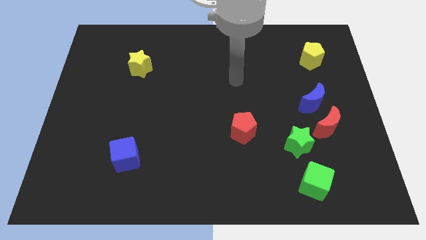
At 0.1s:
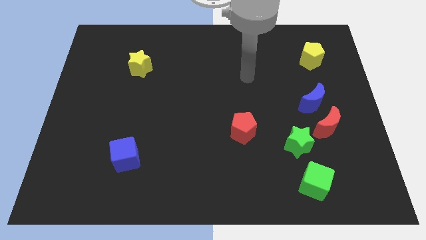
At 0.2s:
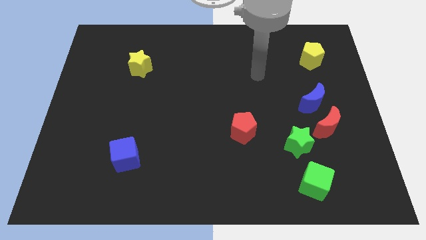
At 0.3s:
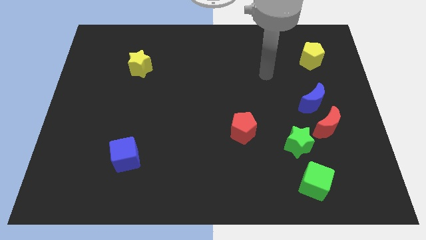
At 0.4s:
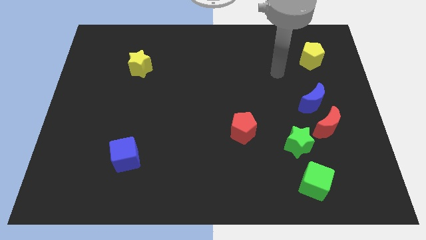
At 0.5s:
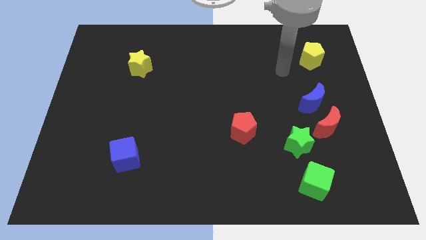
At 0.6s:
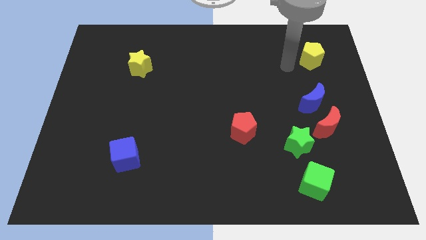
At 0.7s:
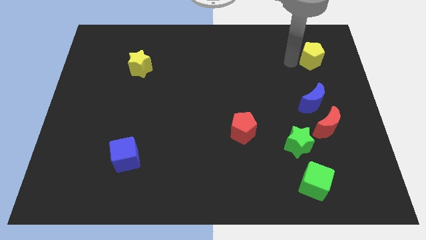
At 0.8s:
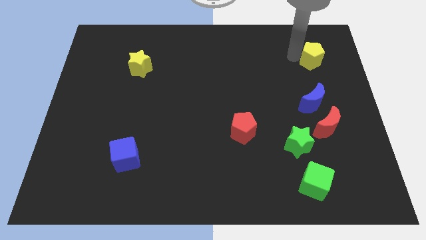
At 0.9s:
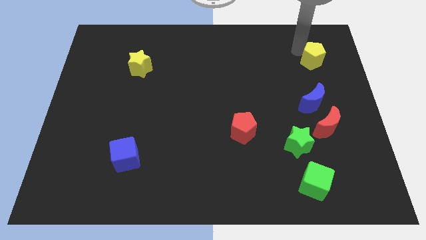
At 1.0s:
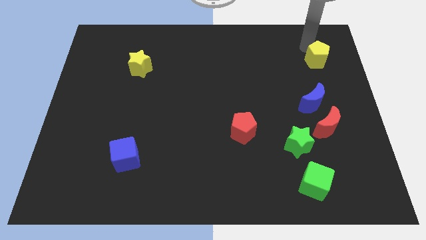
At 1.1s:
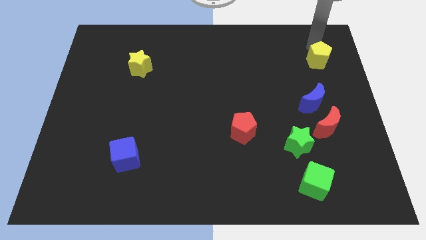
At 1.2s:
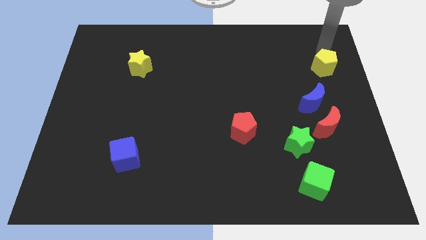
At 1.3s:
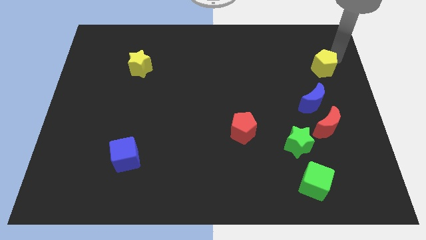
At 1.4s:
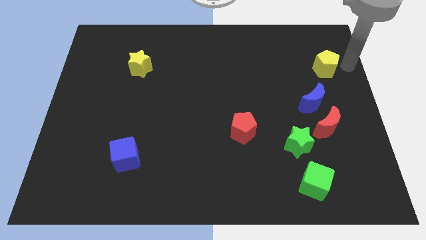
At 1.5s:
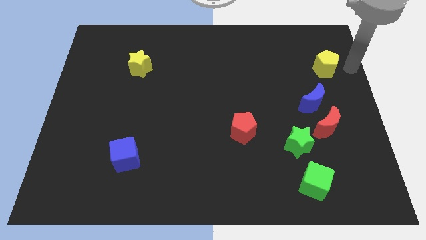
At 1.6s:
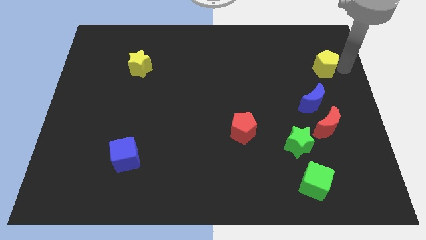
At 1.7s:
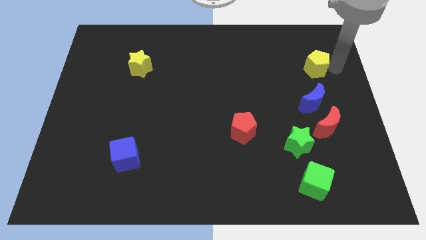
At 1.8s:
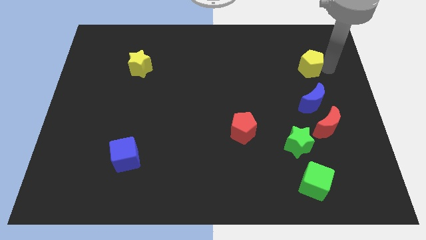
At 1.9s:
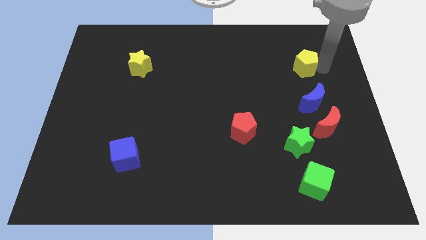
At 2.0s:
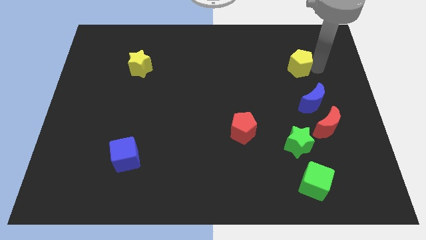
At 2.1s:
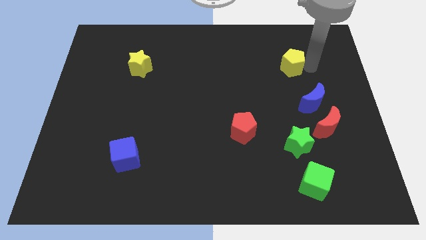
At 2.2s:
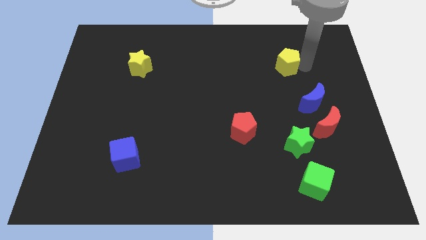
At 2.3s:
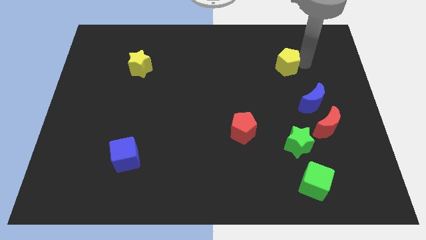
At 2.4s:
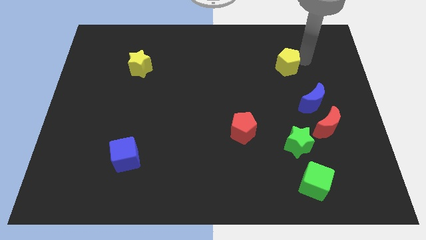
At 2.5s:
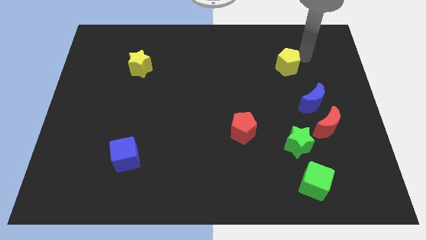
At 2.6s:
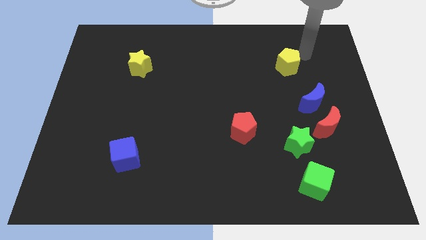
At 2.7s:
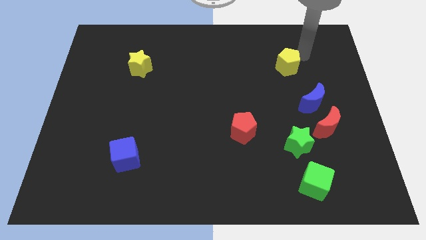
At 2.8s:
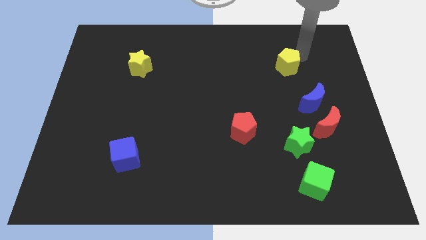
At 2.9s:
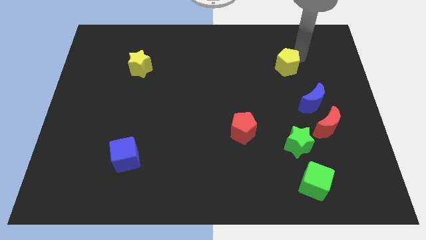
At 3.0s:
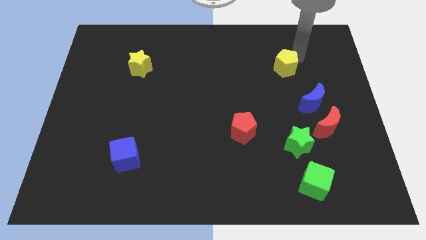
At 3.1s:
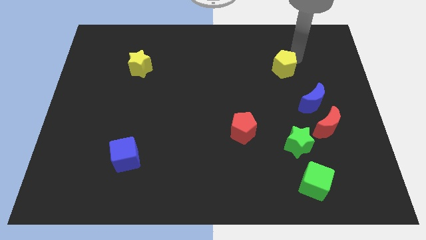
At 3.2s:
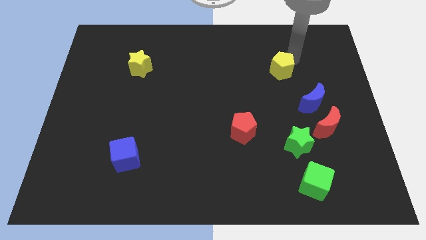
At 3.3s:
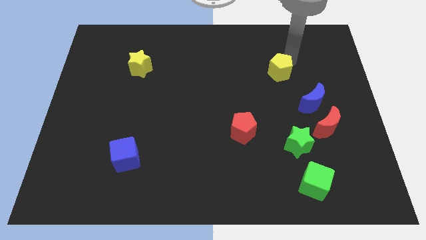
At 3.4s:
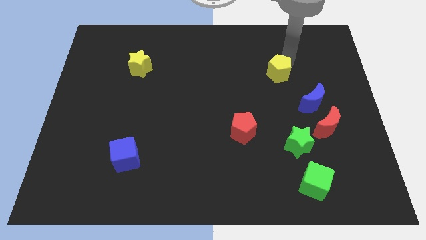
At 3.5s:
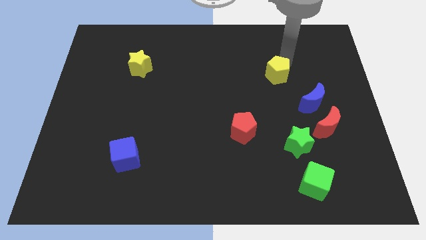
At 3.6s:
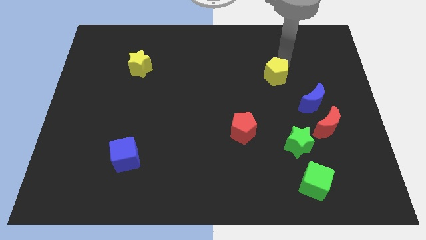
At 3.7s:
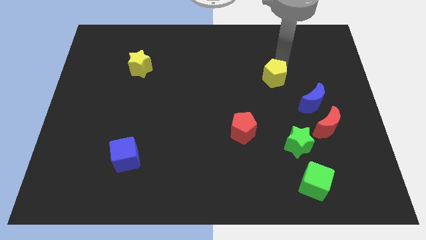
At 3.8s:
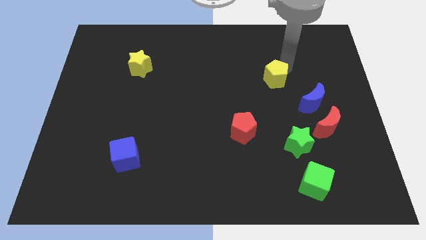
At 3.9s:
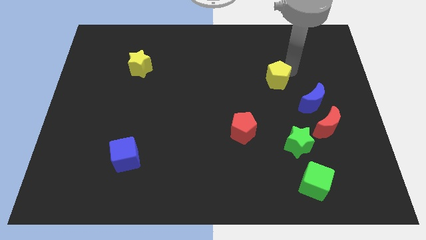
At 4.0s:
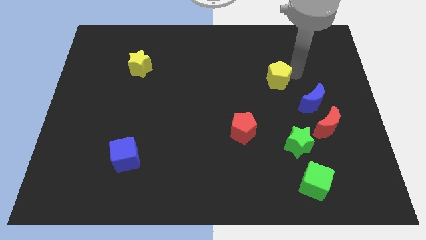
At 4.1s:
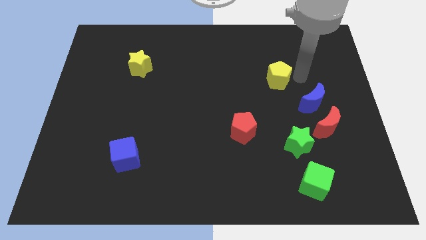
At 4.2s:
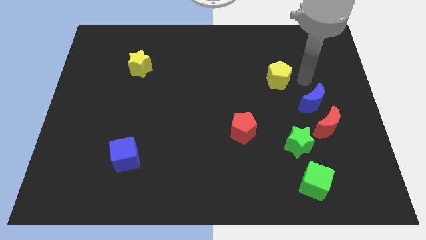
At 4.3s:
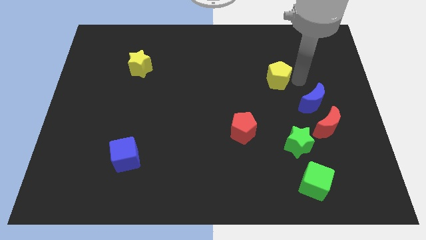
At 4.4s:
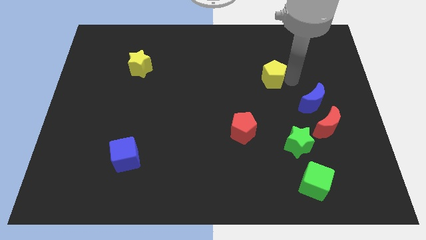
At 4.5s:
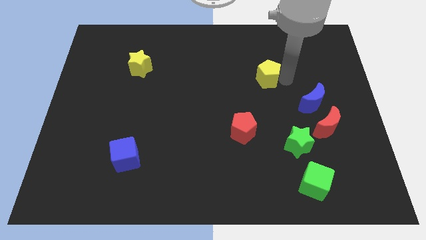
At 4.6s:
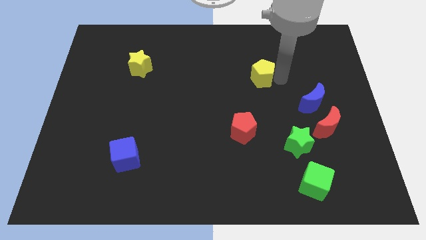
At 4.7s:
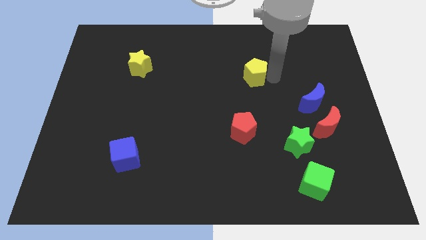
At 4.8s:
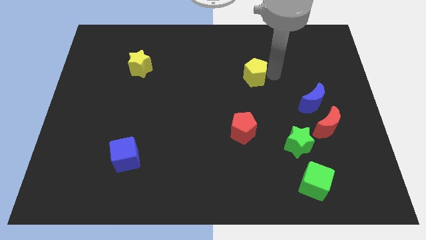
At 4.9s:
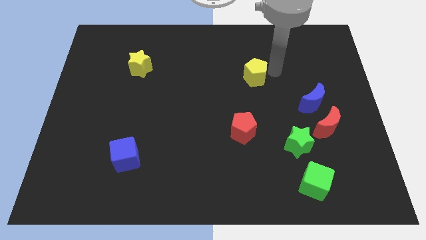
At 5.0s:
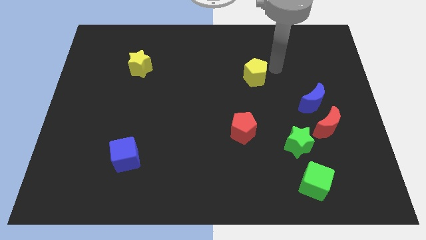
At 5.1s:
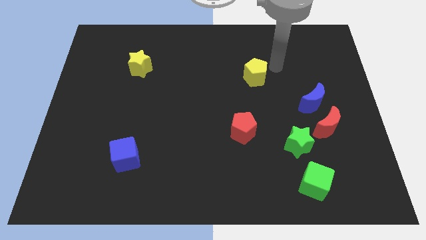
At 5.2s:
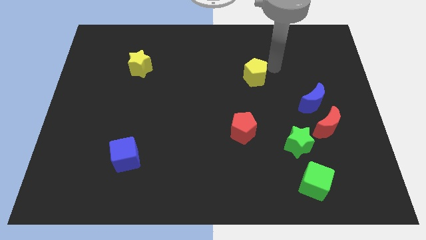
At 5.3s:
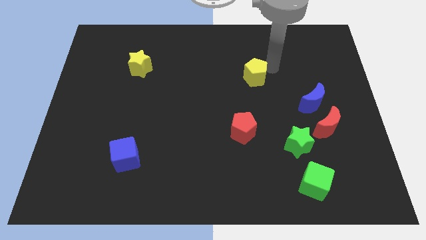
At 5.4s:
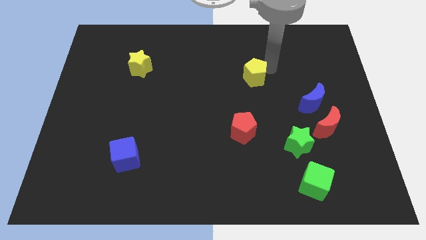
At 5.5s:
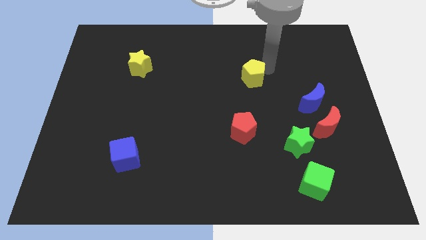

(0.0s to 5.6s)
push the yellow pentagon to the middle of the board

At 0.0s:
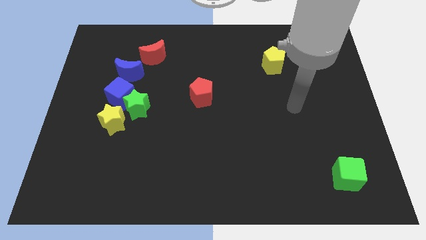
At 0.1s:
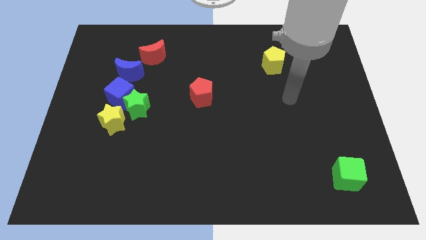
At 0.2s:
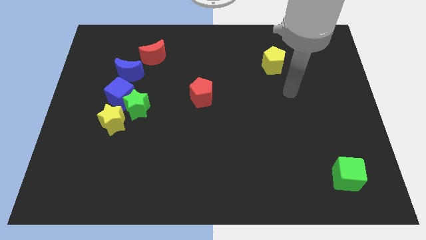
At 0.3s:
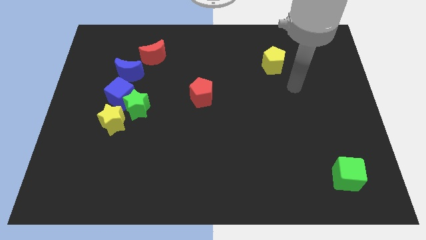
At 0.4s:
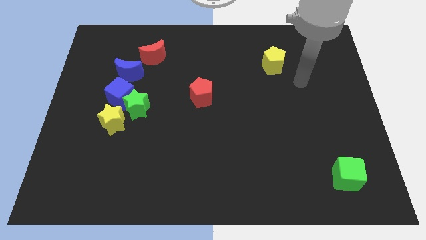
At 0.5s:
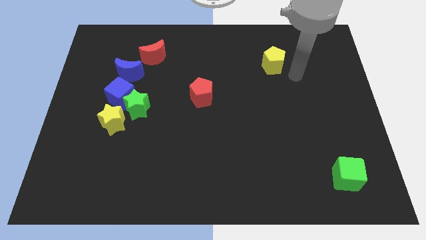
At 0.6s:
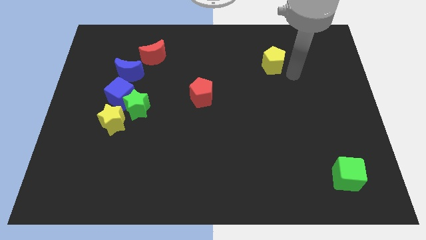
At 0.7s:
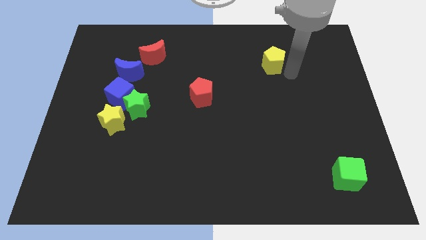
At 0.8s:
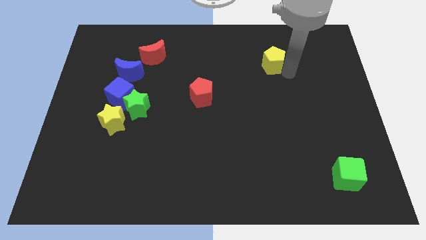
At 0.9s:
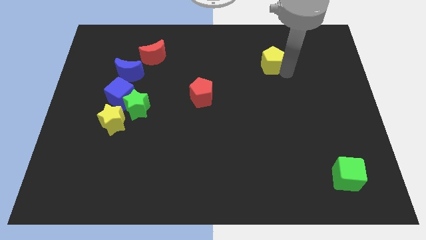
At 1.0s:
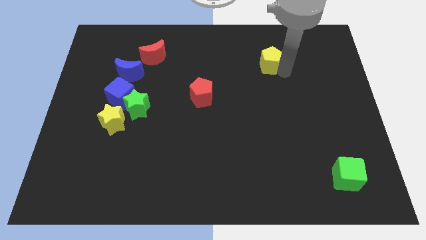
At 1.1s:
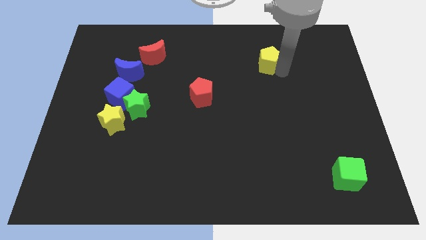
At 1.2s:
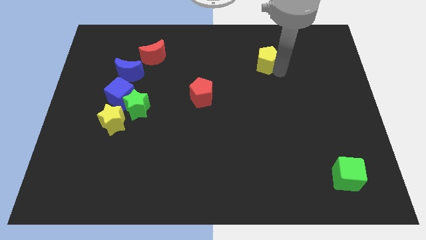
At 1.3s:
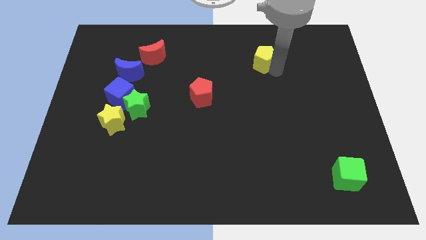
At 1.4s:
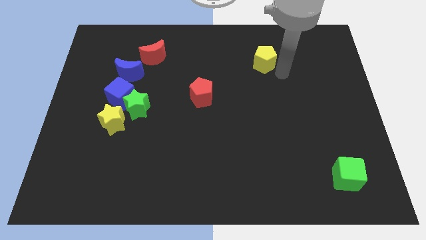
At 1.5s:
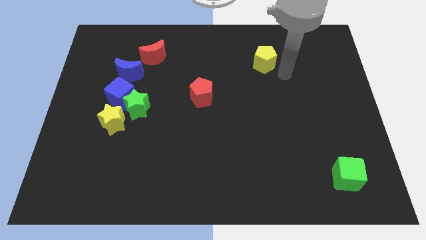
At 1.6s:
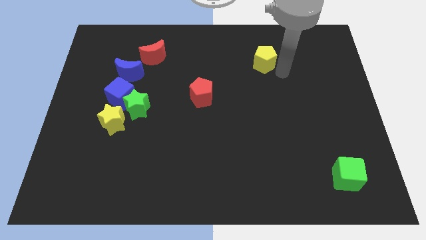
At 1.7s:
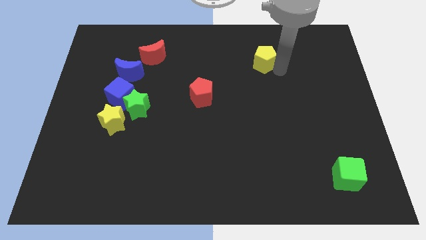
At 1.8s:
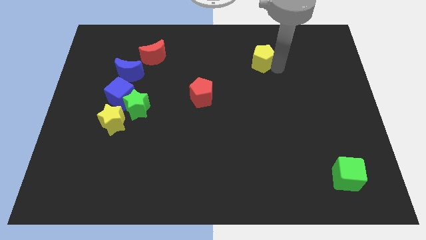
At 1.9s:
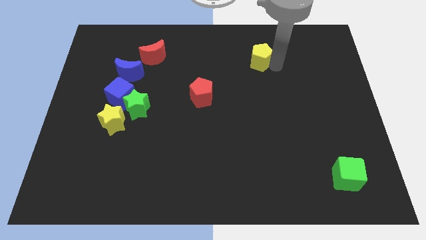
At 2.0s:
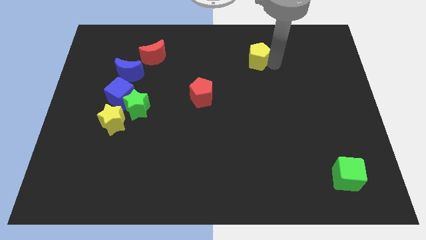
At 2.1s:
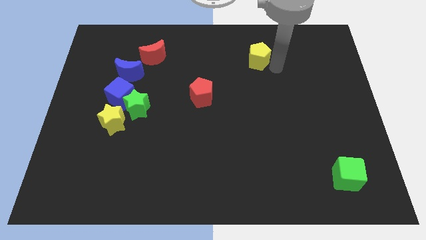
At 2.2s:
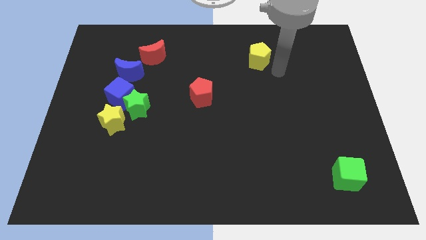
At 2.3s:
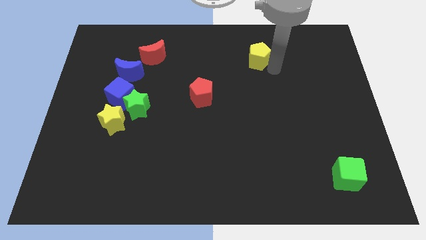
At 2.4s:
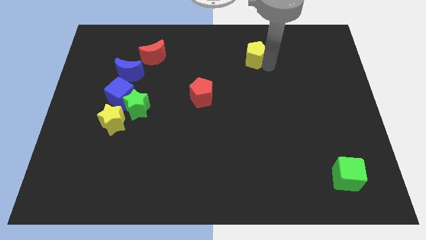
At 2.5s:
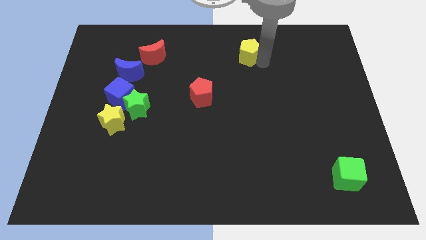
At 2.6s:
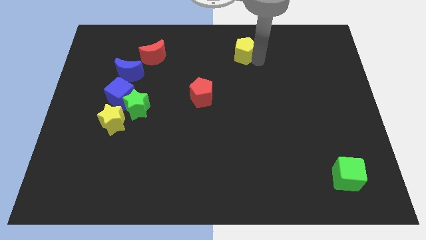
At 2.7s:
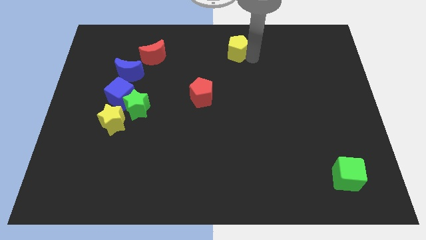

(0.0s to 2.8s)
push the yellow pentagon to the top side
